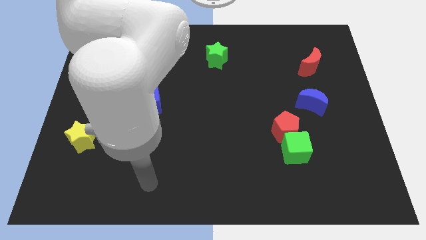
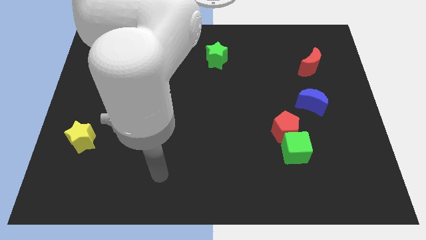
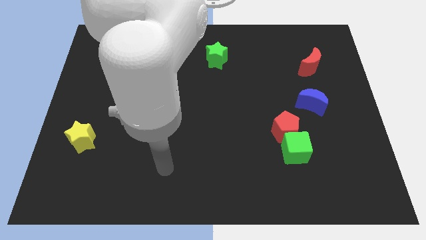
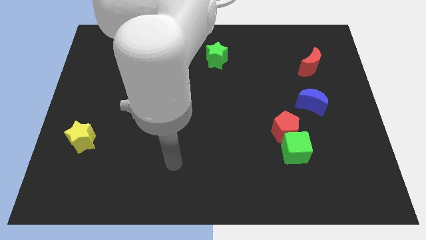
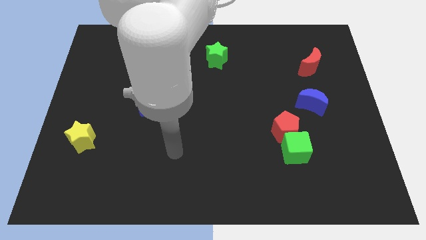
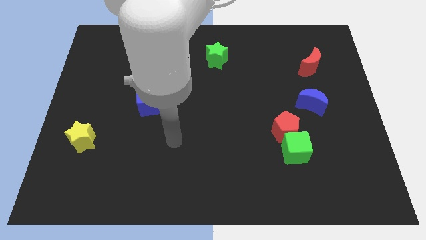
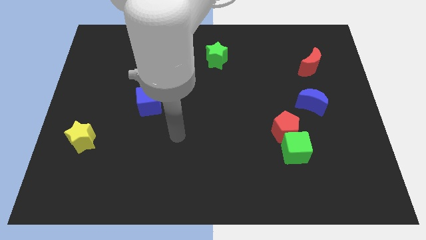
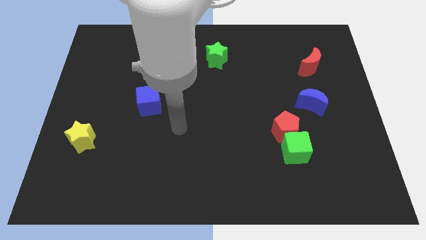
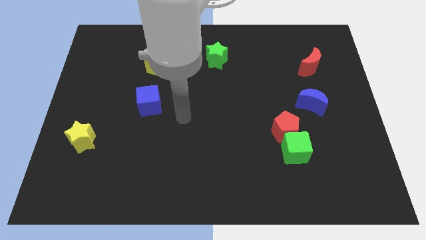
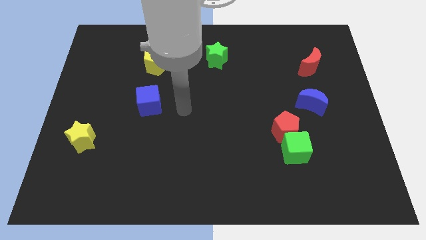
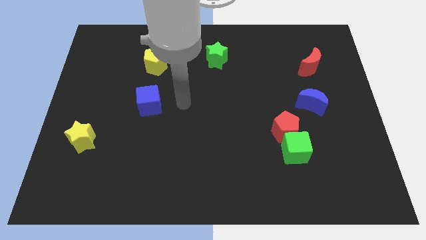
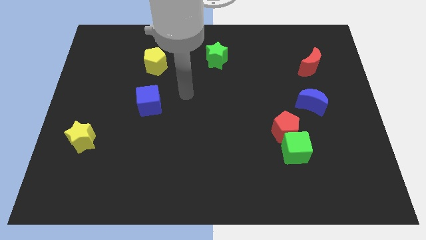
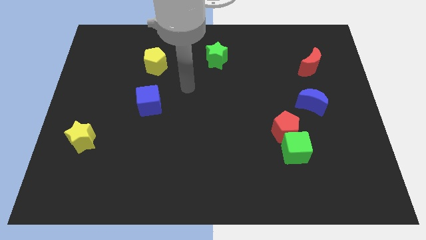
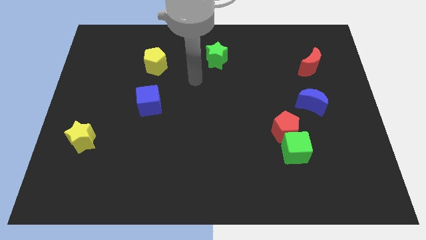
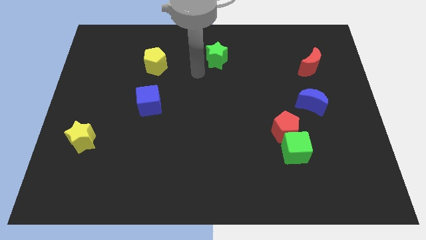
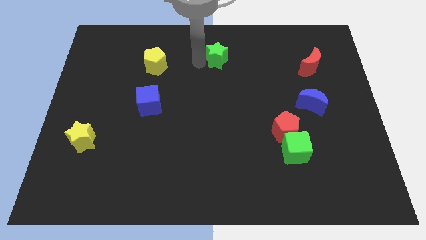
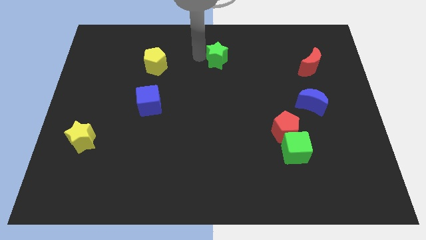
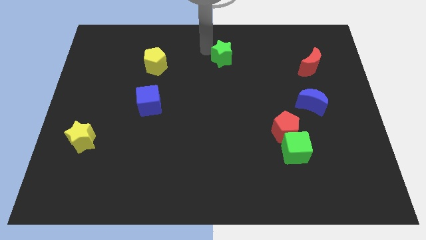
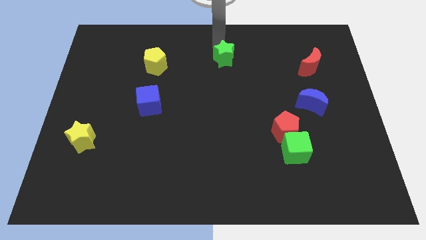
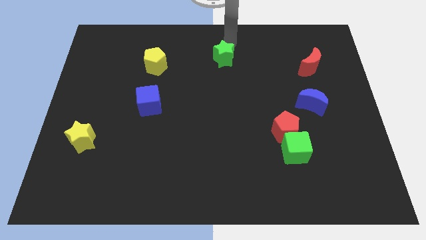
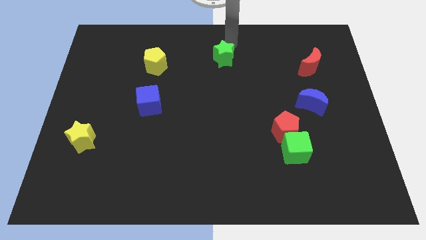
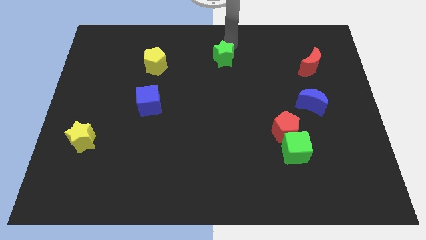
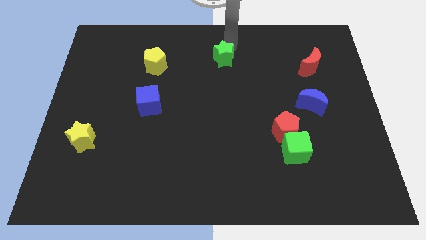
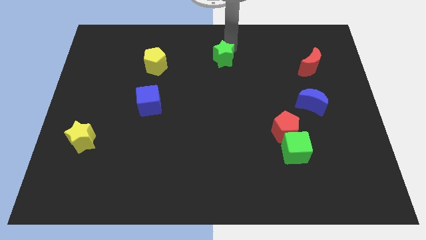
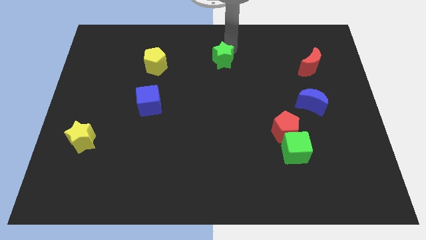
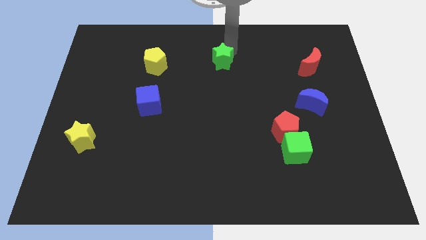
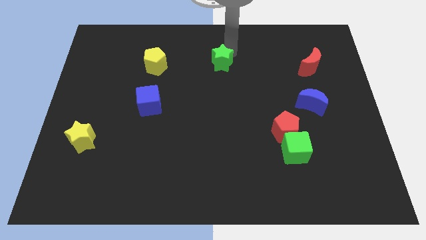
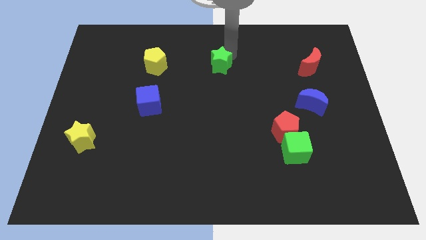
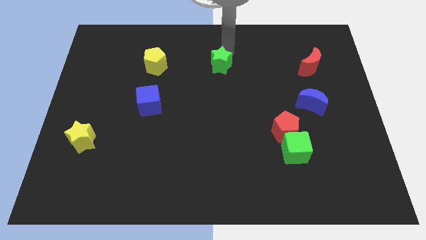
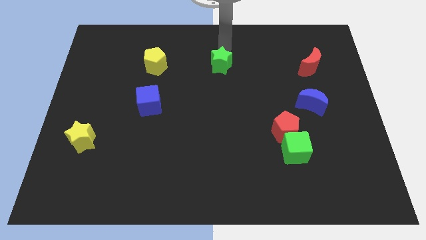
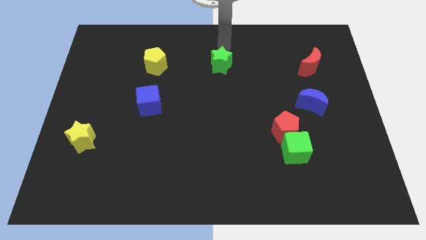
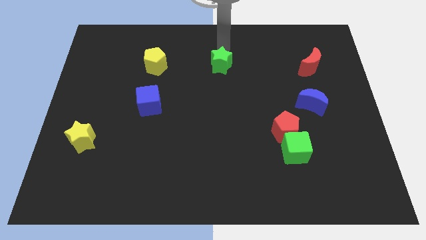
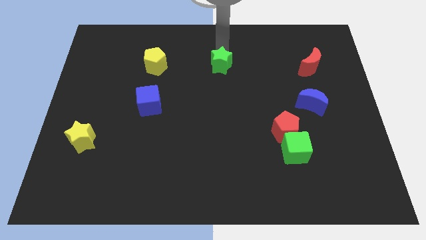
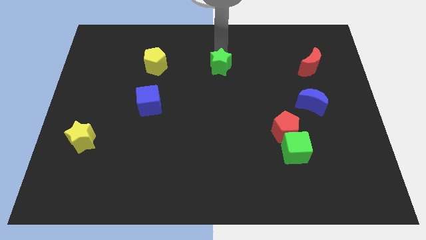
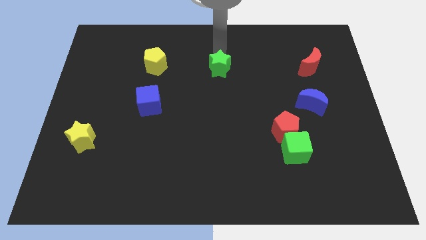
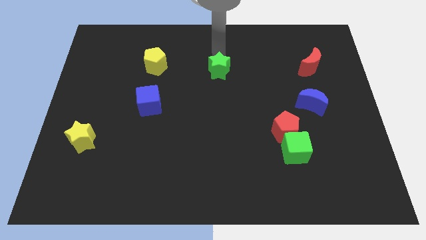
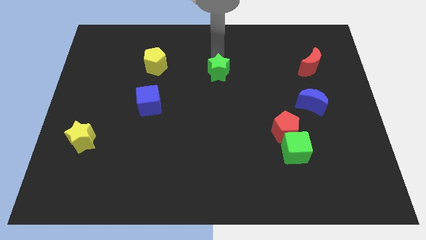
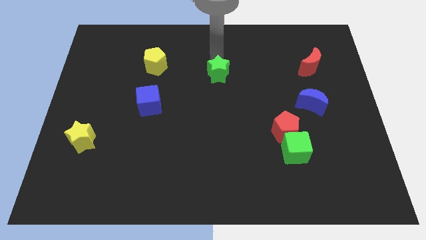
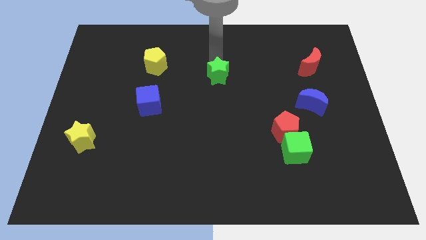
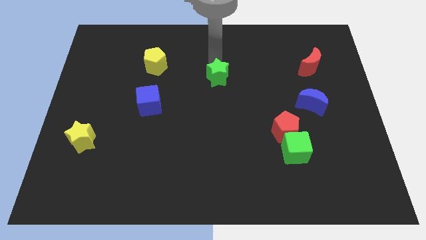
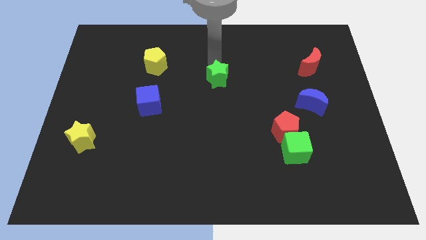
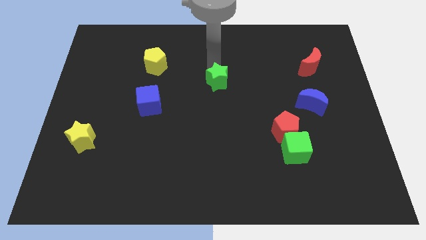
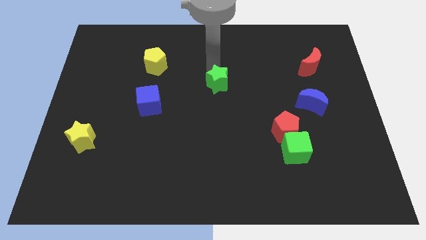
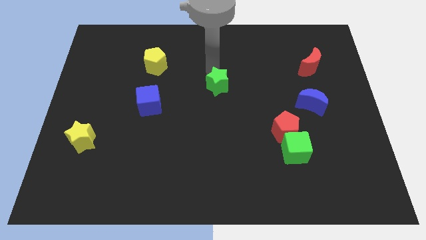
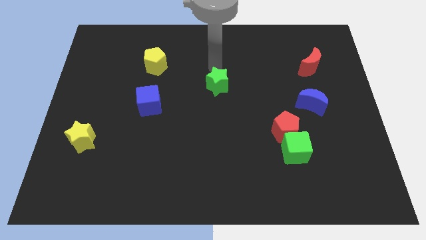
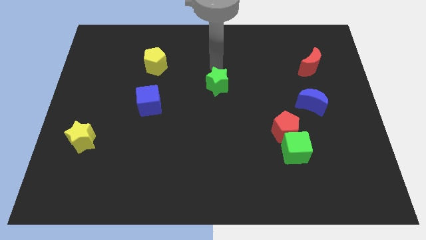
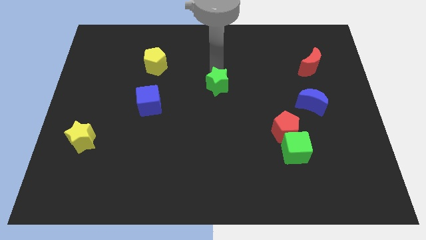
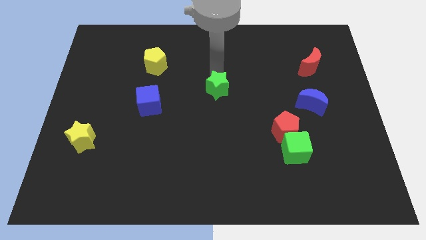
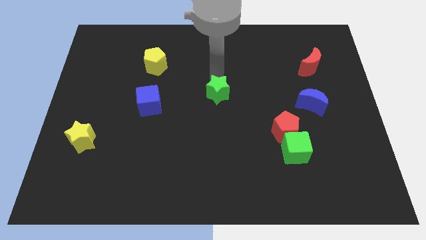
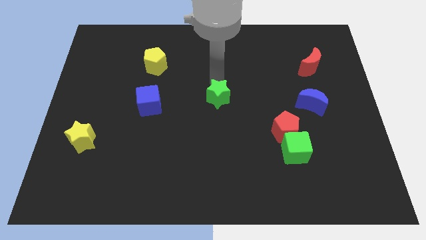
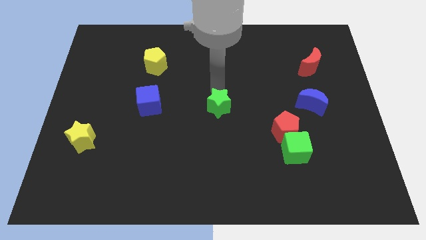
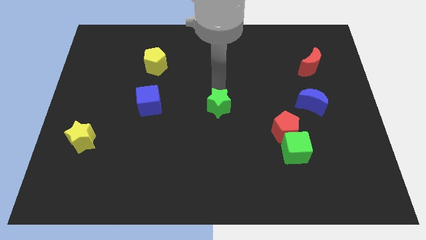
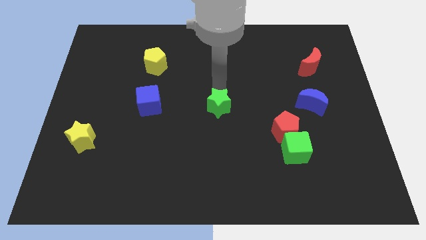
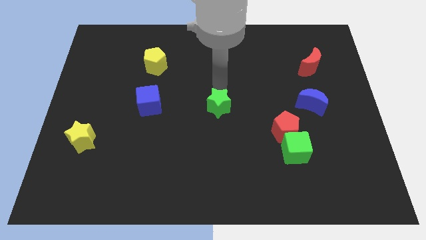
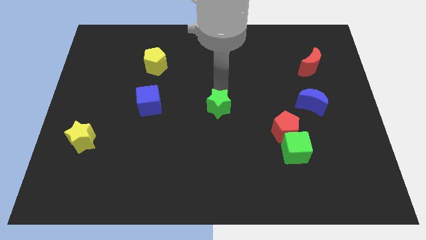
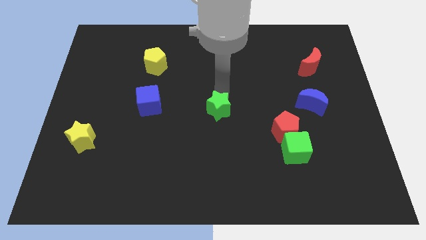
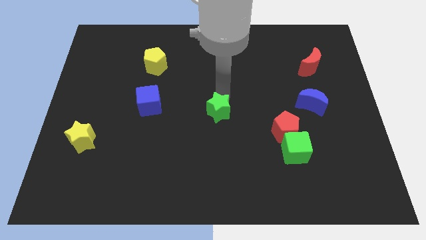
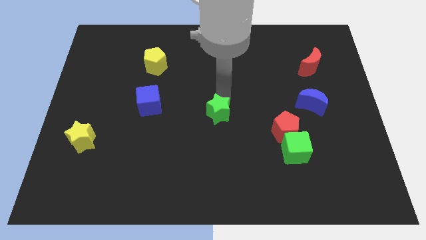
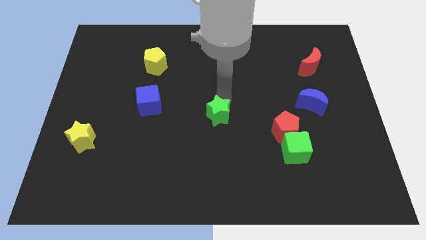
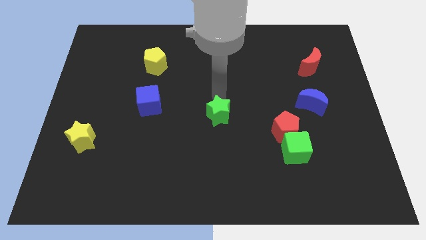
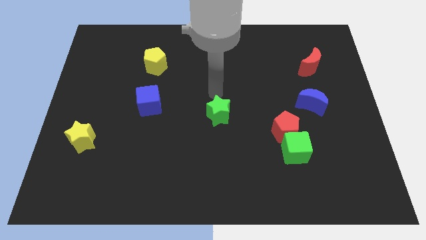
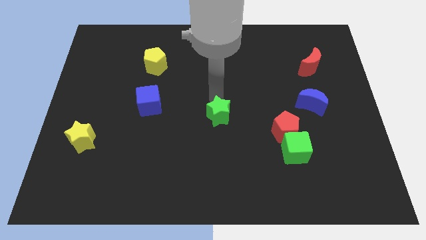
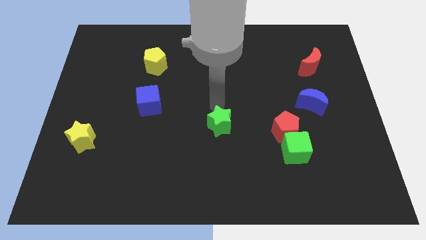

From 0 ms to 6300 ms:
slide the green star downwards

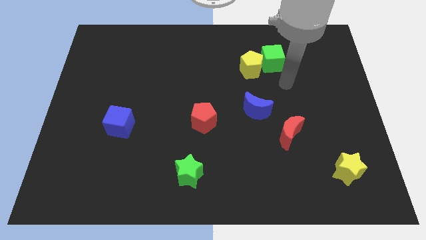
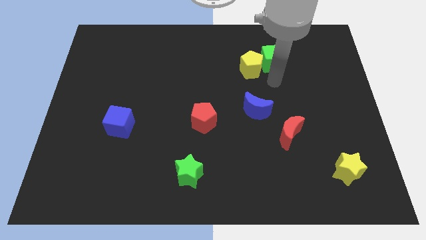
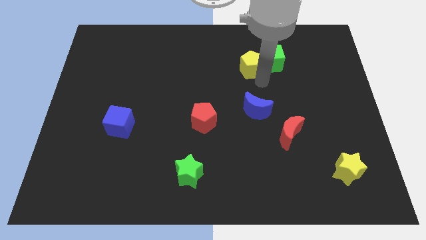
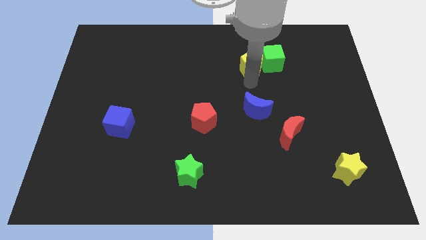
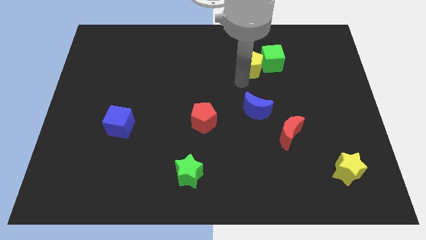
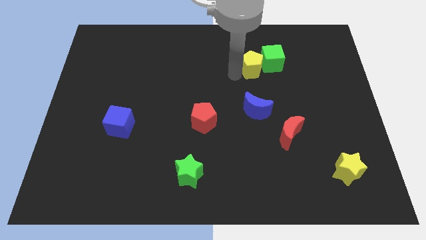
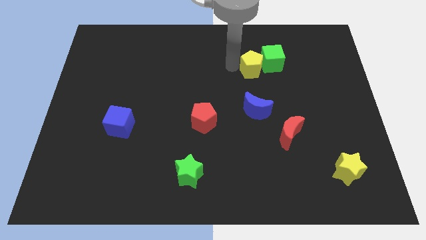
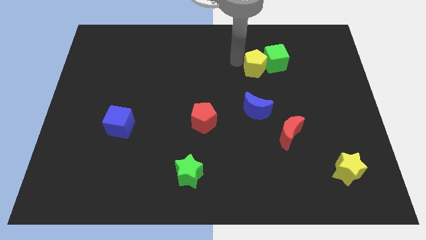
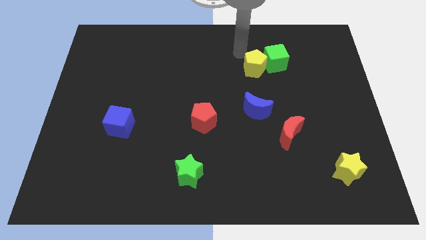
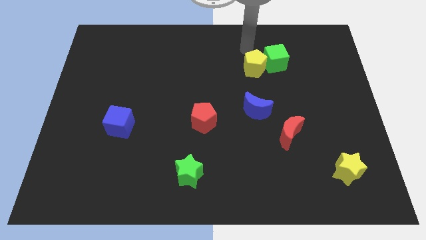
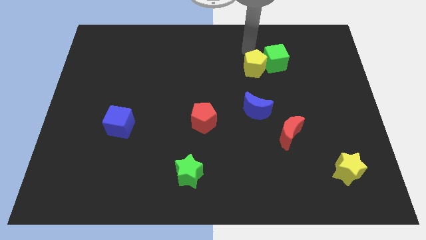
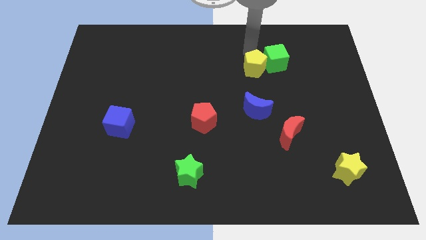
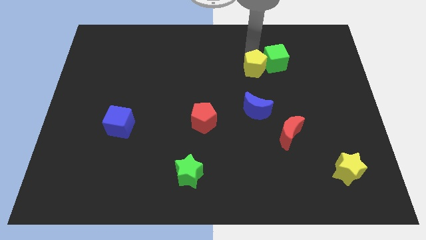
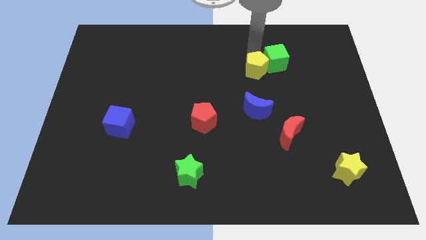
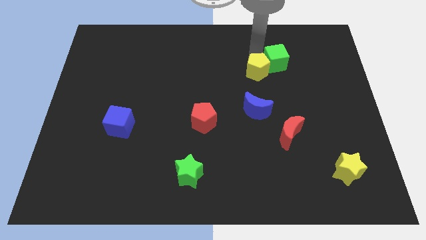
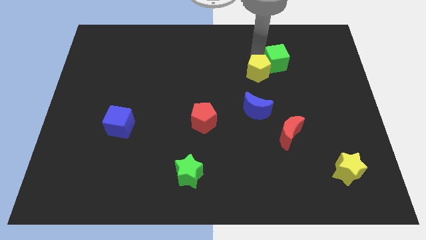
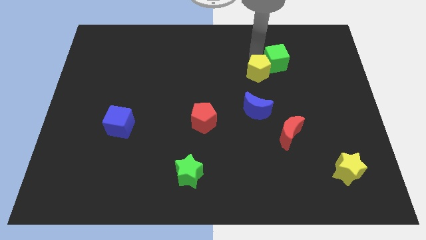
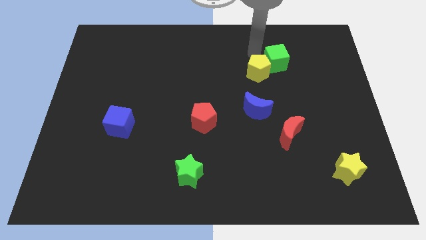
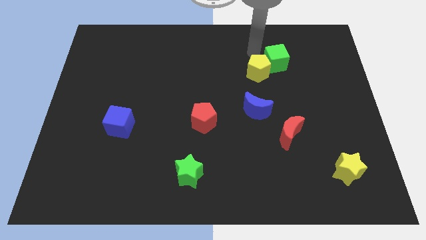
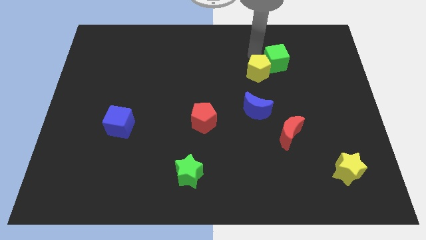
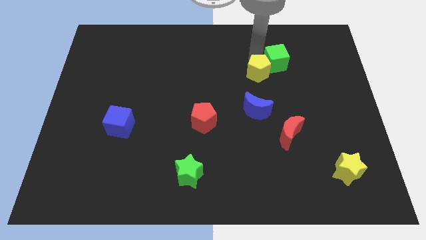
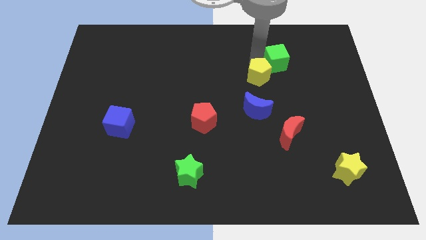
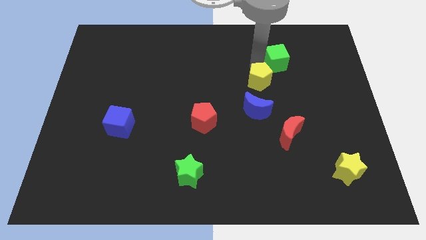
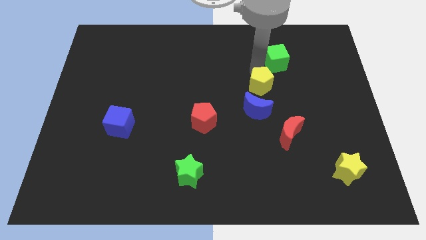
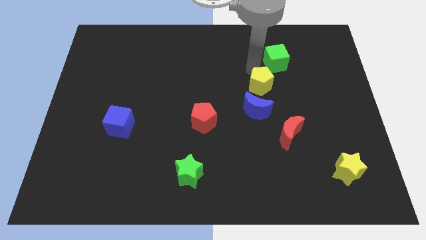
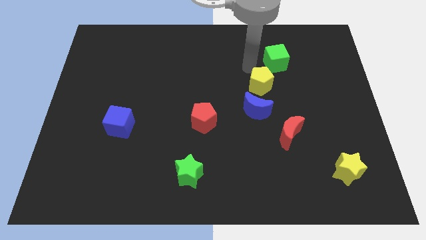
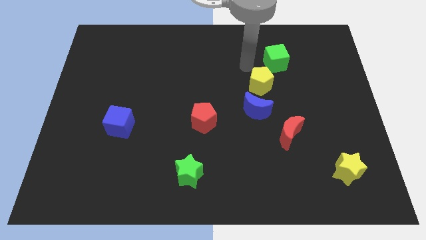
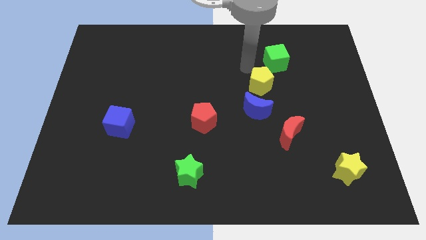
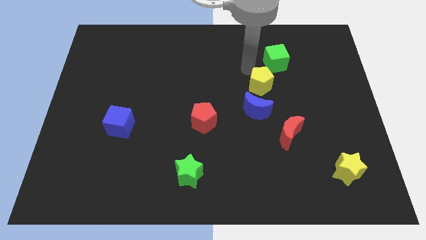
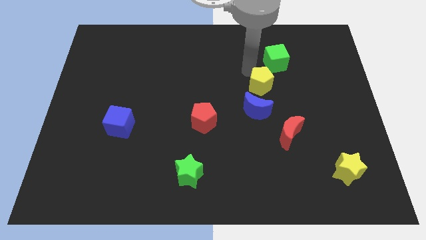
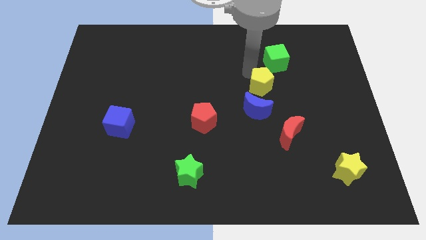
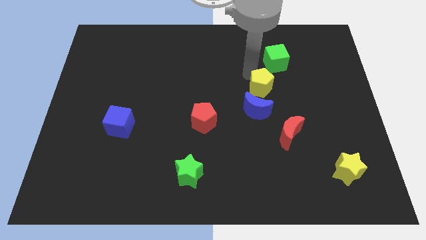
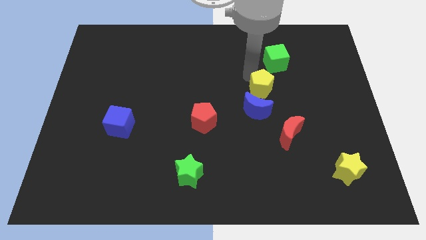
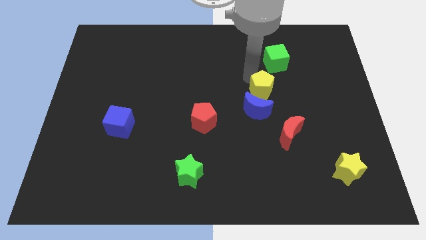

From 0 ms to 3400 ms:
push the yellow pentagon down a bit
